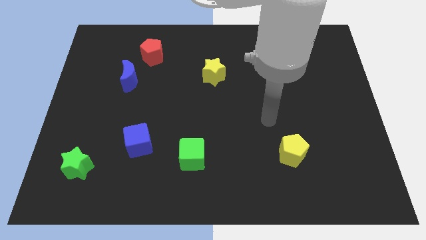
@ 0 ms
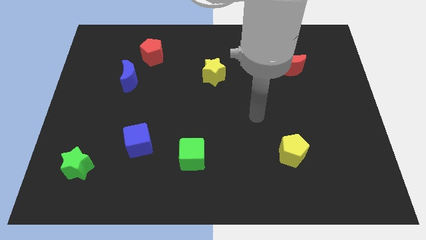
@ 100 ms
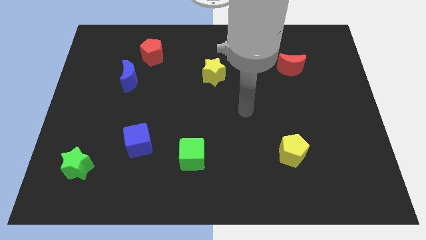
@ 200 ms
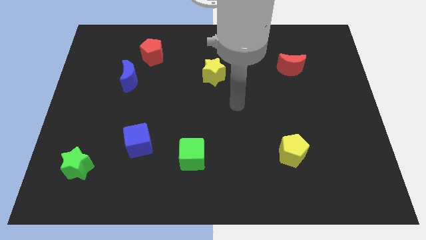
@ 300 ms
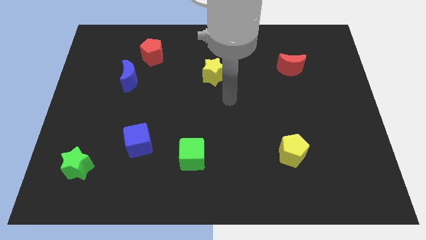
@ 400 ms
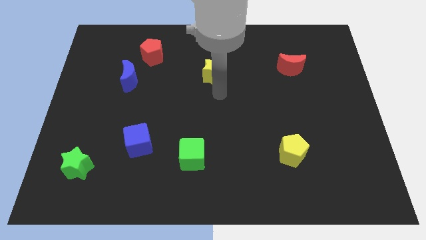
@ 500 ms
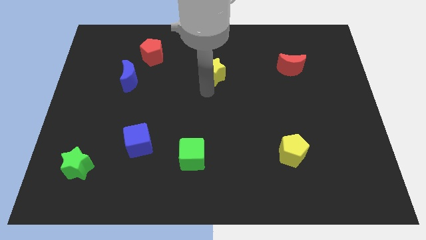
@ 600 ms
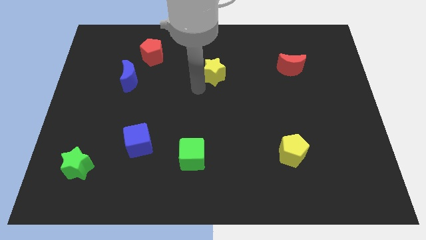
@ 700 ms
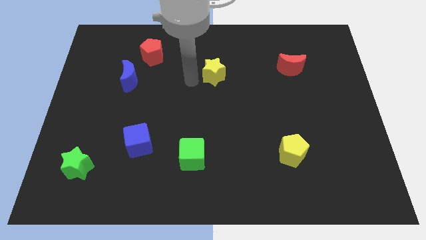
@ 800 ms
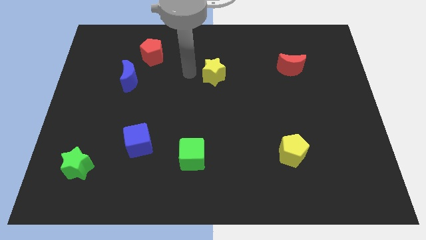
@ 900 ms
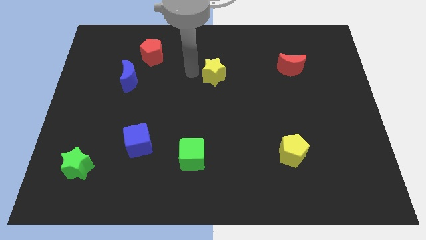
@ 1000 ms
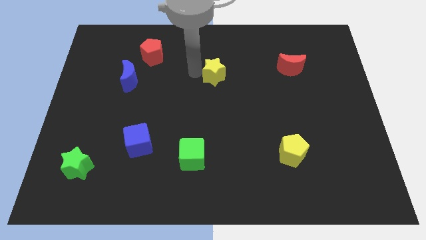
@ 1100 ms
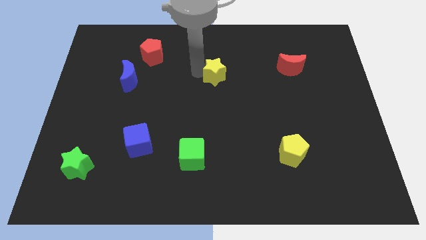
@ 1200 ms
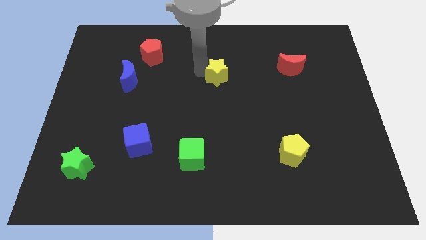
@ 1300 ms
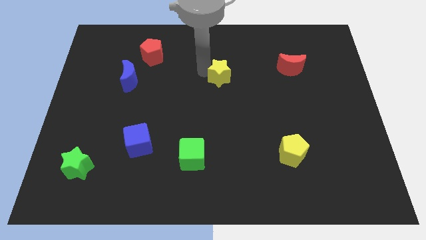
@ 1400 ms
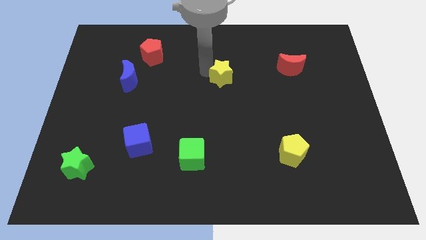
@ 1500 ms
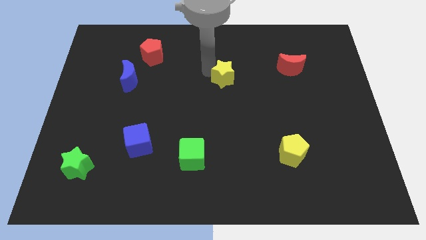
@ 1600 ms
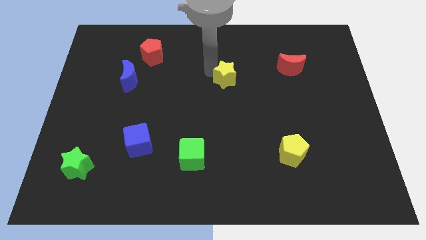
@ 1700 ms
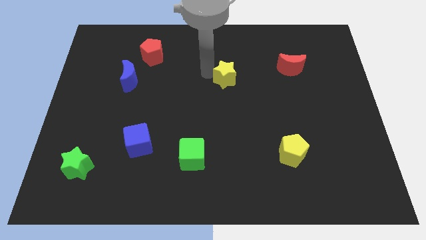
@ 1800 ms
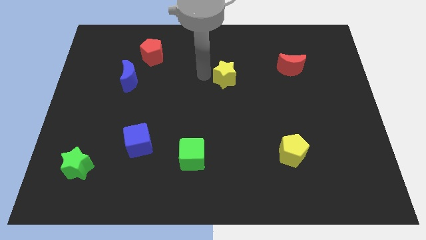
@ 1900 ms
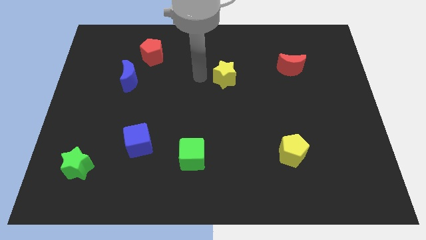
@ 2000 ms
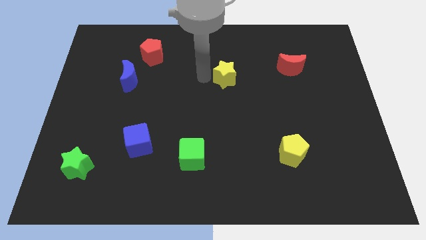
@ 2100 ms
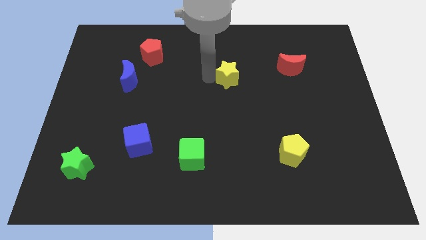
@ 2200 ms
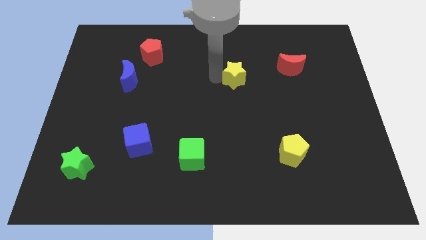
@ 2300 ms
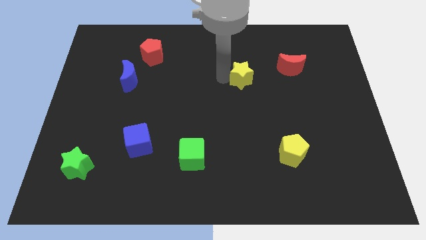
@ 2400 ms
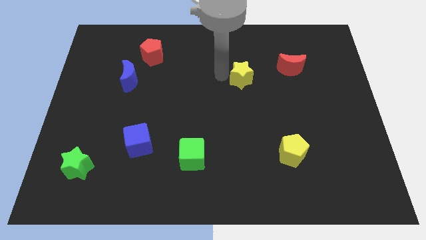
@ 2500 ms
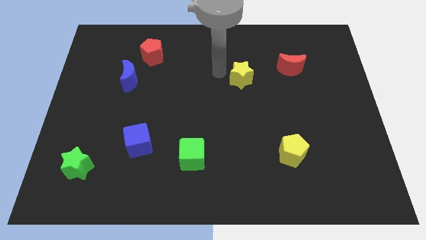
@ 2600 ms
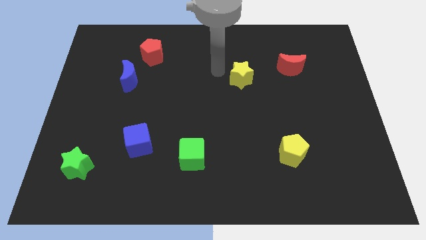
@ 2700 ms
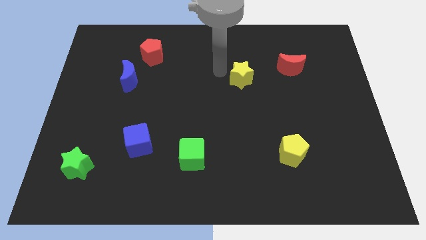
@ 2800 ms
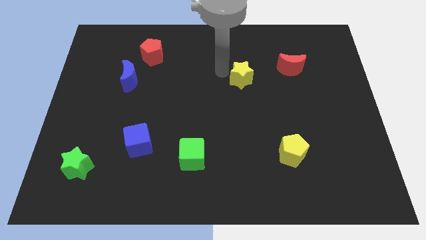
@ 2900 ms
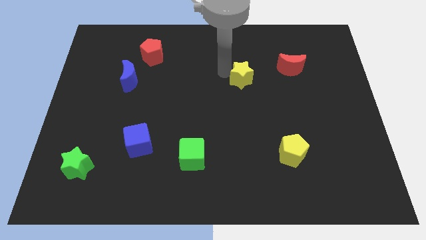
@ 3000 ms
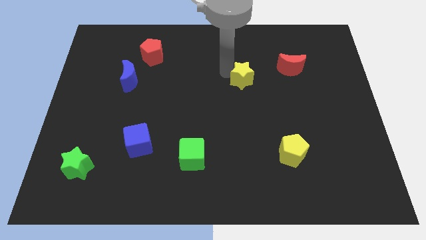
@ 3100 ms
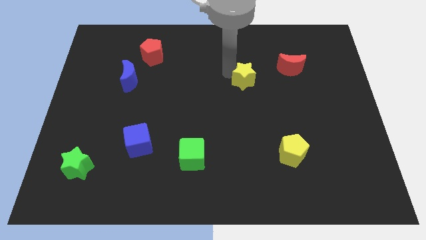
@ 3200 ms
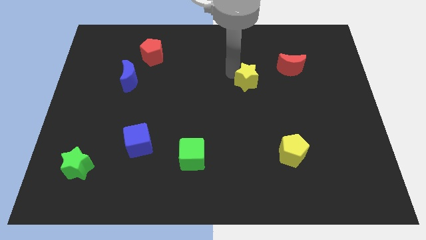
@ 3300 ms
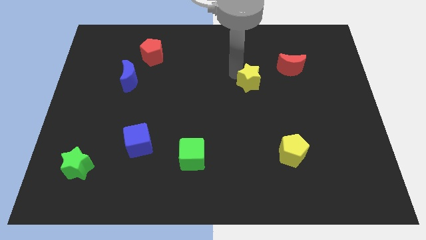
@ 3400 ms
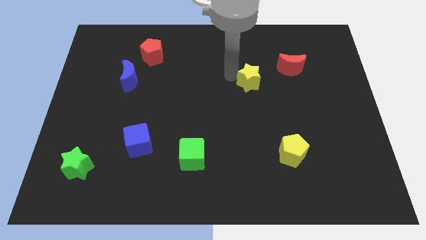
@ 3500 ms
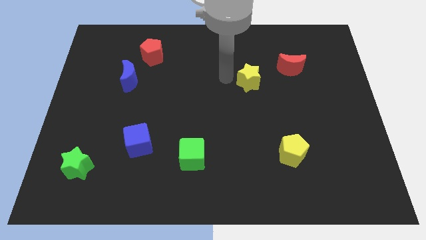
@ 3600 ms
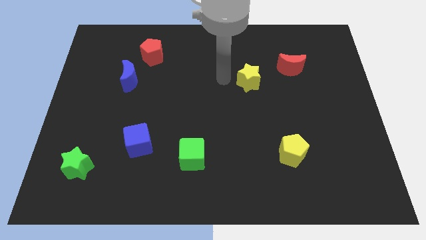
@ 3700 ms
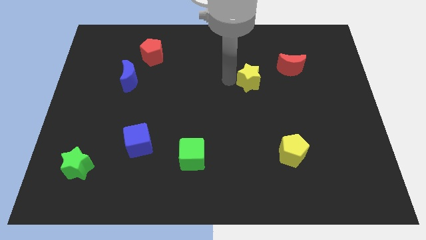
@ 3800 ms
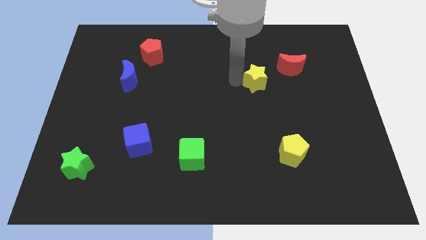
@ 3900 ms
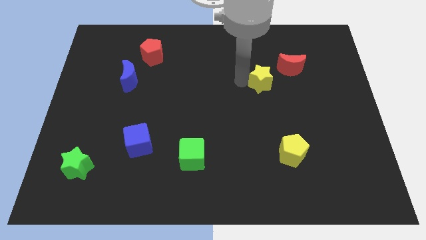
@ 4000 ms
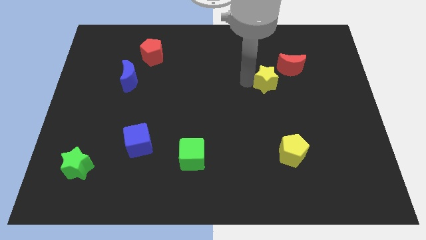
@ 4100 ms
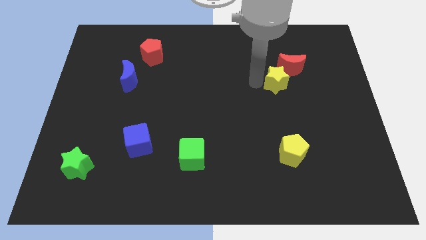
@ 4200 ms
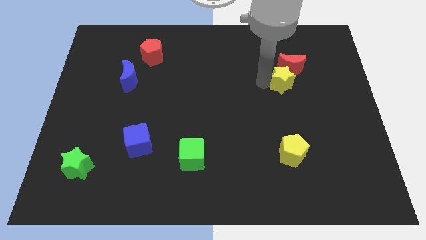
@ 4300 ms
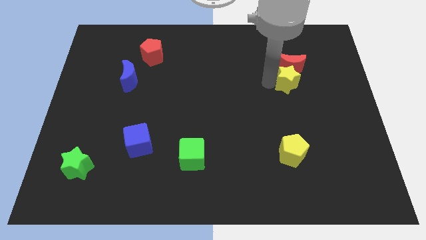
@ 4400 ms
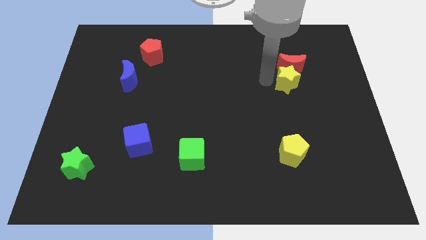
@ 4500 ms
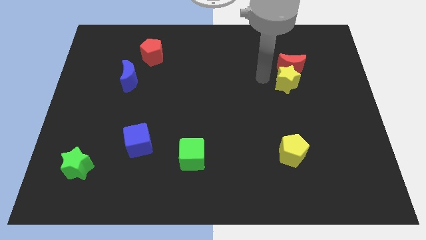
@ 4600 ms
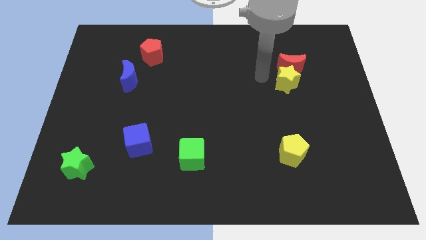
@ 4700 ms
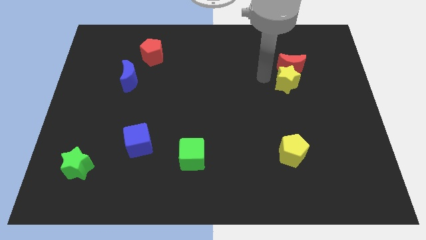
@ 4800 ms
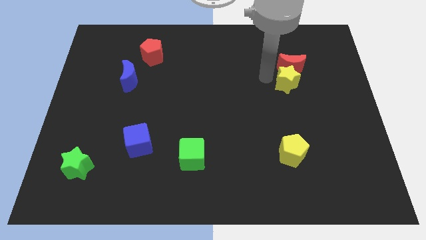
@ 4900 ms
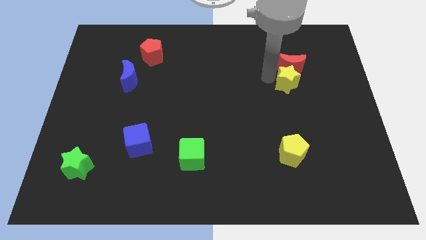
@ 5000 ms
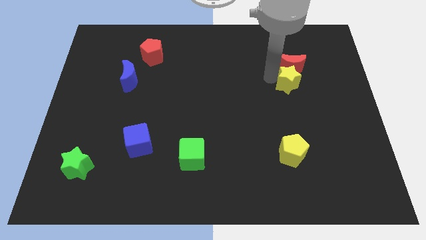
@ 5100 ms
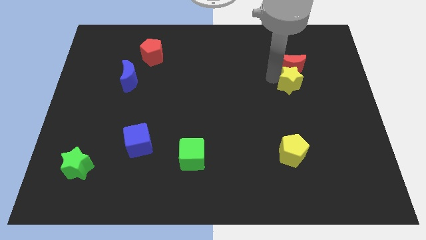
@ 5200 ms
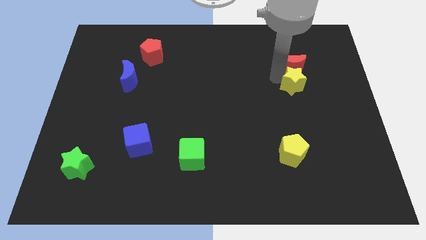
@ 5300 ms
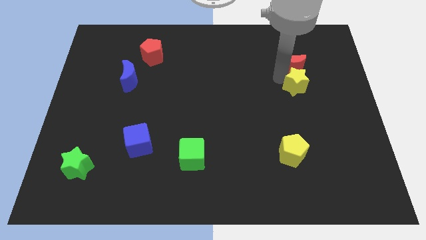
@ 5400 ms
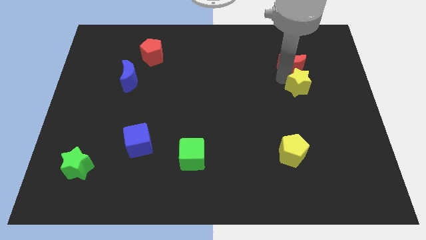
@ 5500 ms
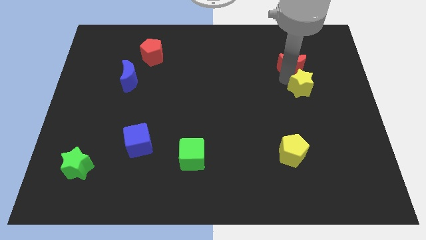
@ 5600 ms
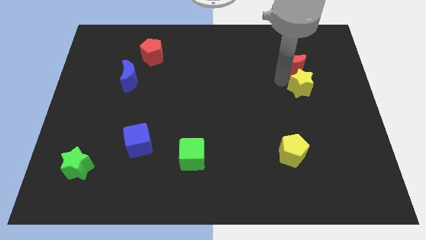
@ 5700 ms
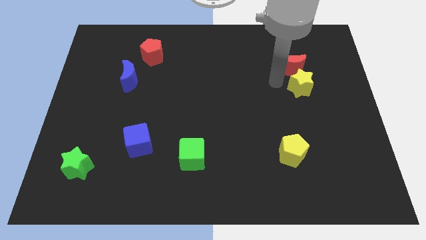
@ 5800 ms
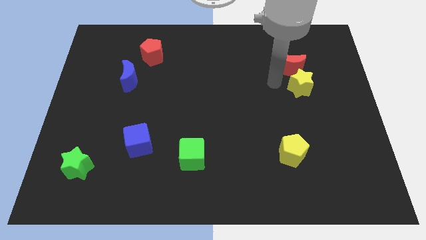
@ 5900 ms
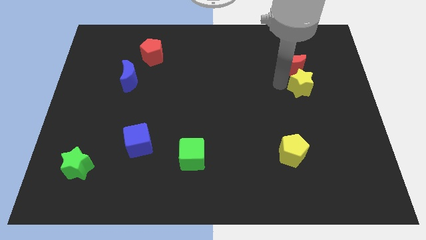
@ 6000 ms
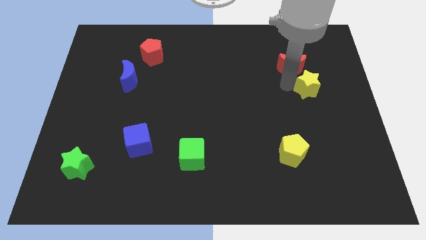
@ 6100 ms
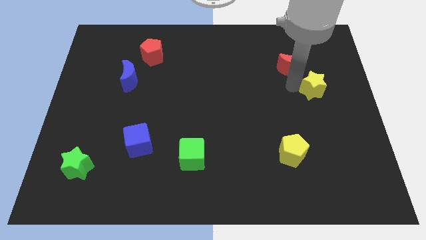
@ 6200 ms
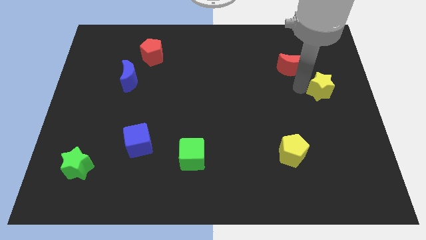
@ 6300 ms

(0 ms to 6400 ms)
put the yellow star to the right side

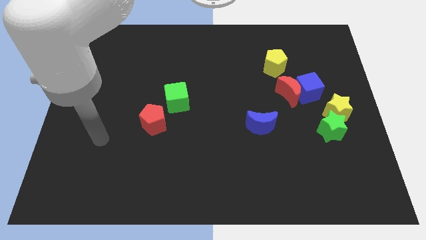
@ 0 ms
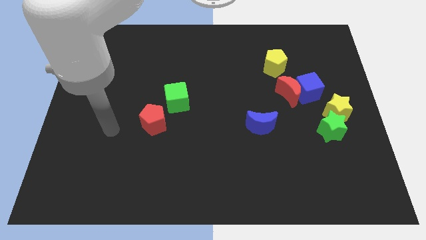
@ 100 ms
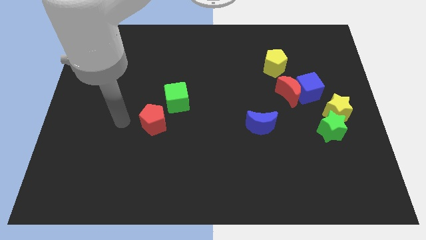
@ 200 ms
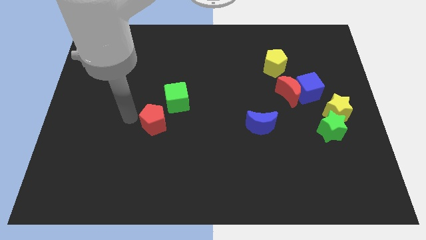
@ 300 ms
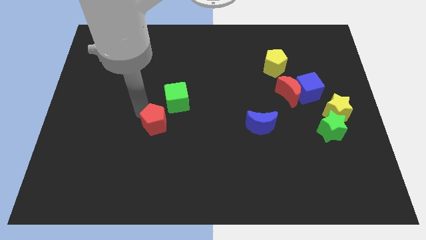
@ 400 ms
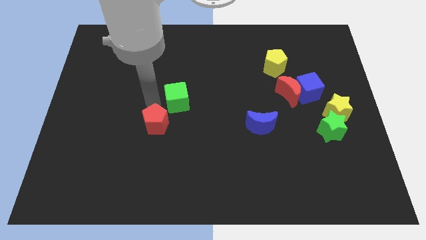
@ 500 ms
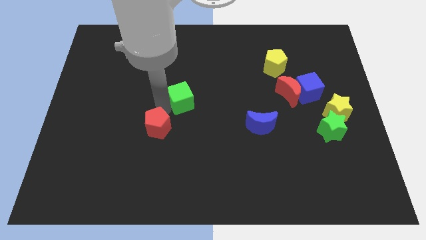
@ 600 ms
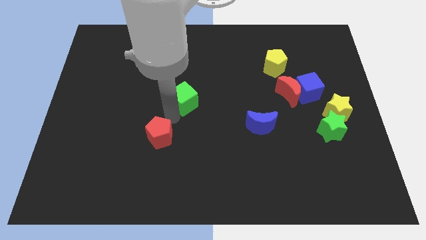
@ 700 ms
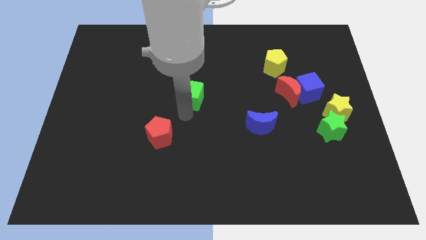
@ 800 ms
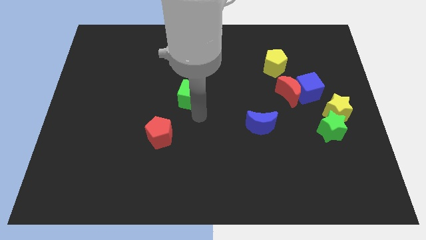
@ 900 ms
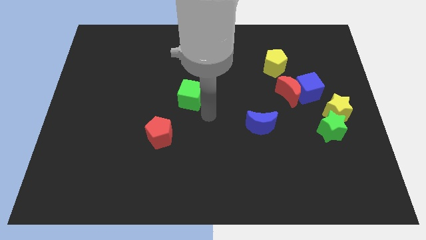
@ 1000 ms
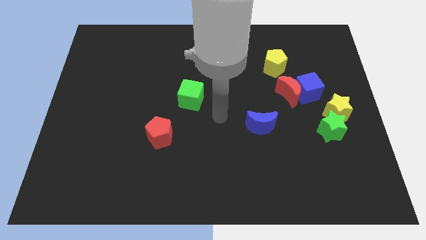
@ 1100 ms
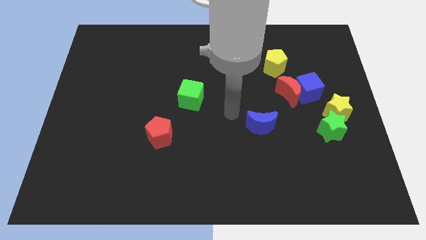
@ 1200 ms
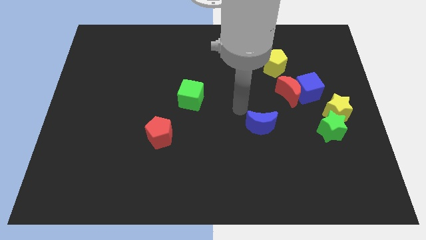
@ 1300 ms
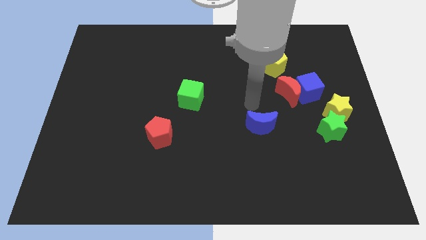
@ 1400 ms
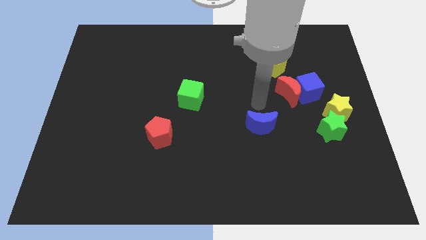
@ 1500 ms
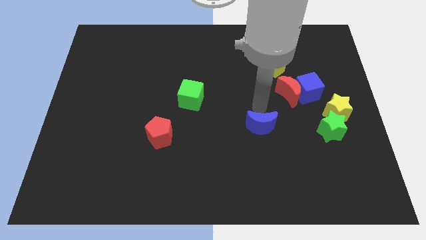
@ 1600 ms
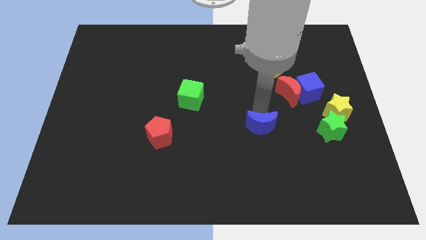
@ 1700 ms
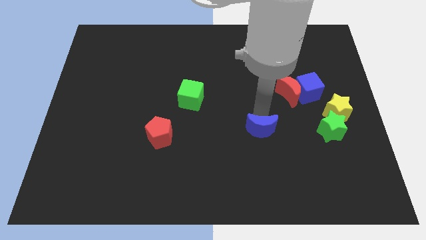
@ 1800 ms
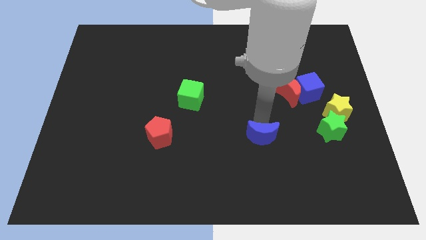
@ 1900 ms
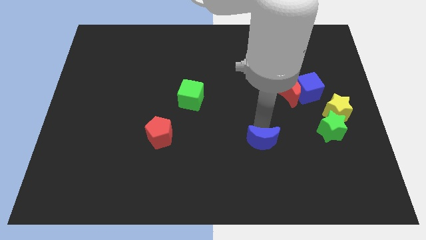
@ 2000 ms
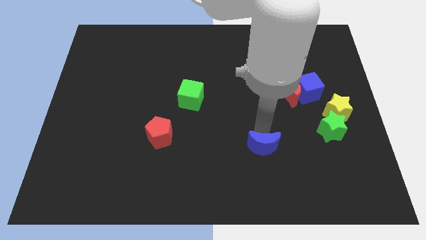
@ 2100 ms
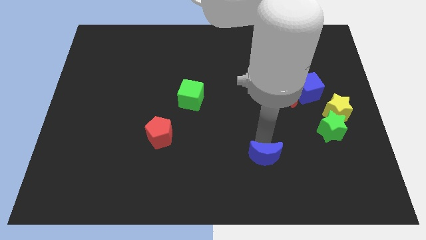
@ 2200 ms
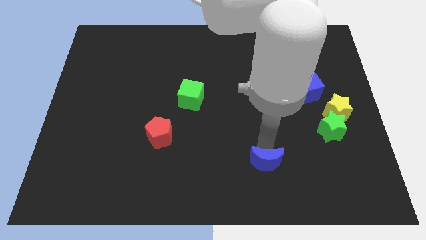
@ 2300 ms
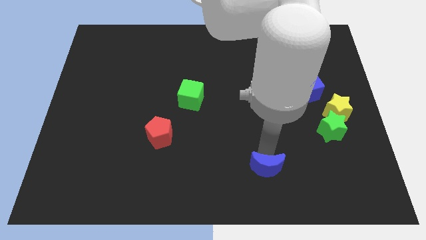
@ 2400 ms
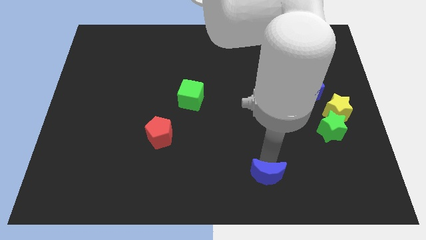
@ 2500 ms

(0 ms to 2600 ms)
move the blue moon to the bottom
